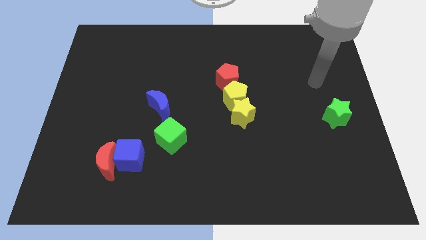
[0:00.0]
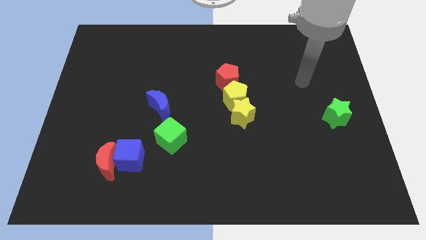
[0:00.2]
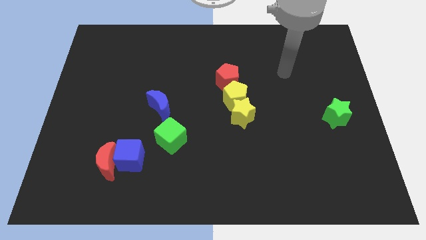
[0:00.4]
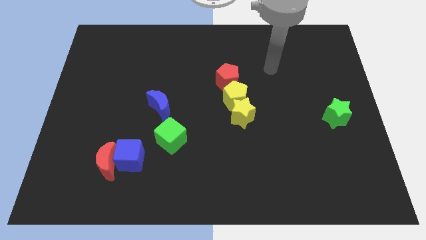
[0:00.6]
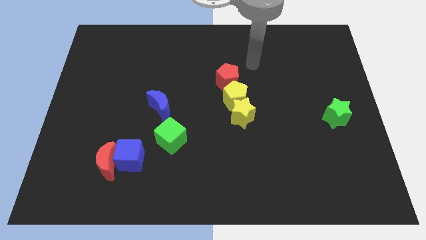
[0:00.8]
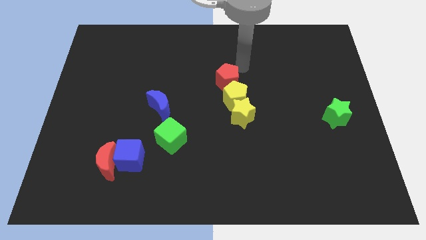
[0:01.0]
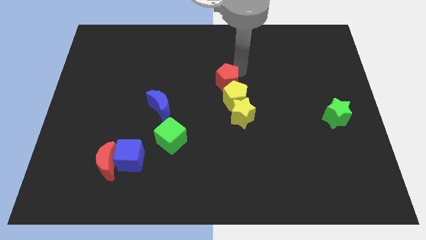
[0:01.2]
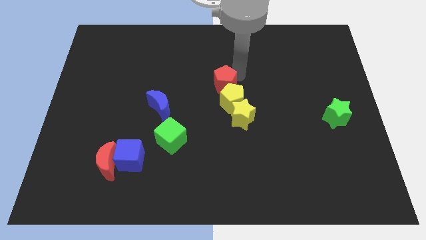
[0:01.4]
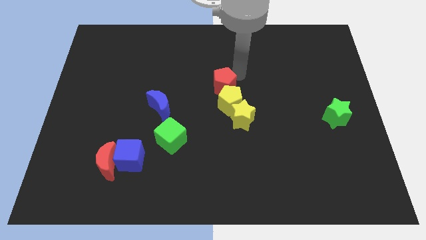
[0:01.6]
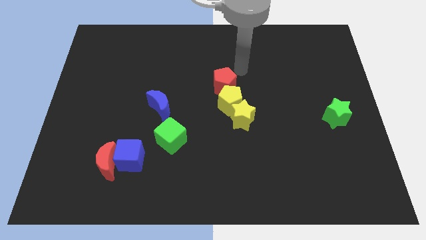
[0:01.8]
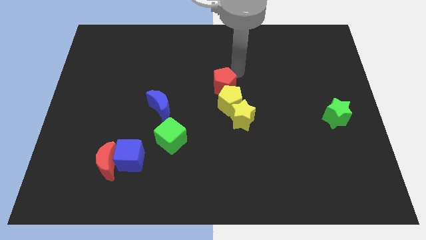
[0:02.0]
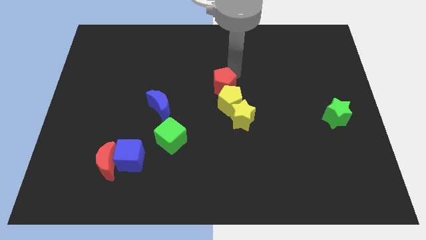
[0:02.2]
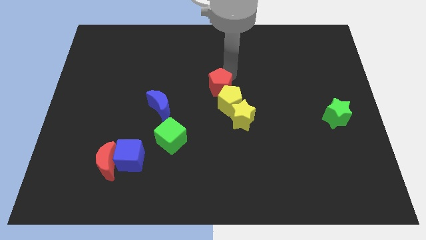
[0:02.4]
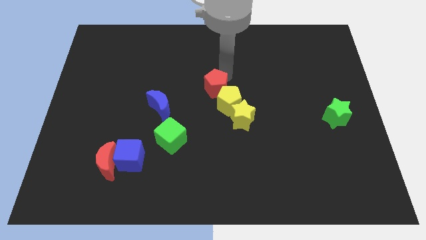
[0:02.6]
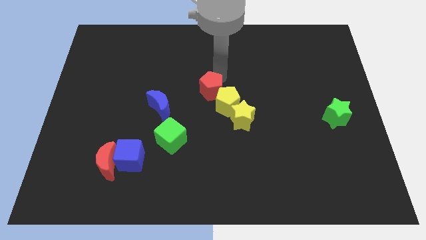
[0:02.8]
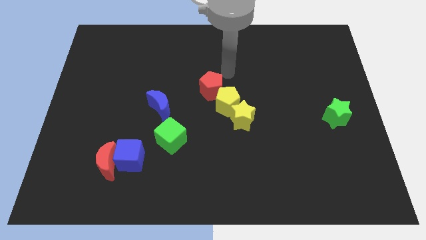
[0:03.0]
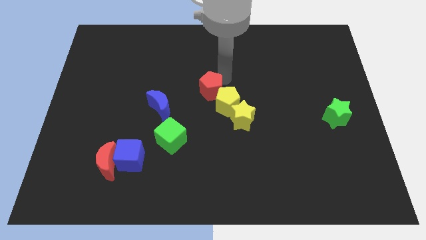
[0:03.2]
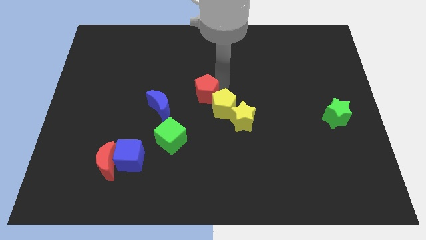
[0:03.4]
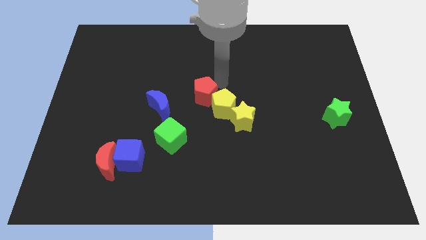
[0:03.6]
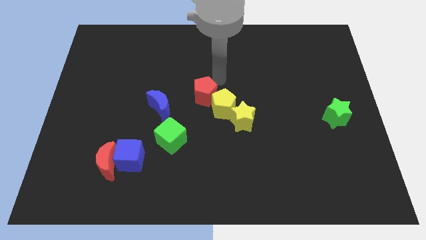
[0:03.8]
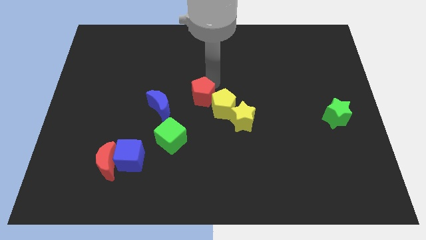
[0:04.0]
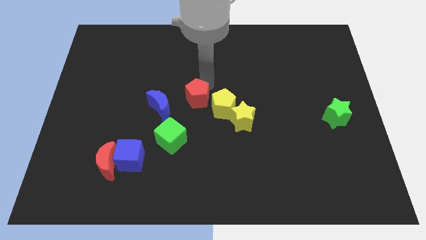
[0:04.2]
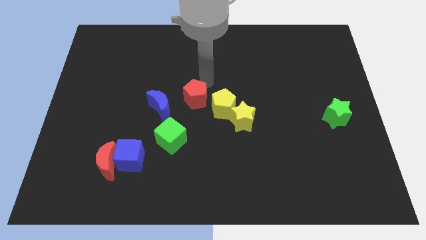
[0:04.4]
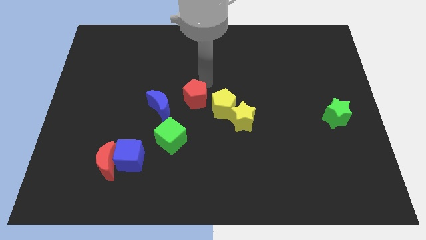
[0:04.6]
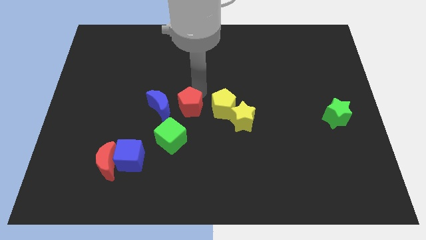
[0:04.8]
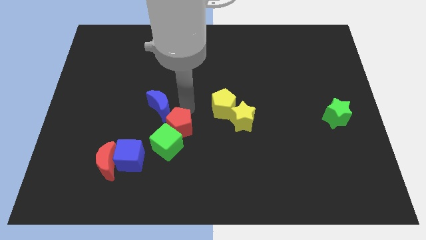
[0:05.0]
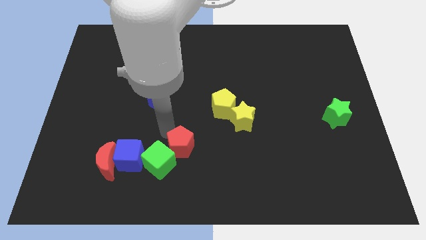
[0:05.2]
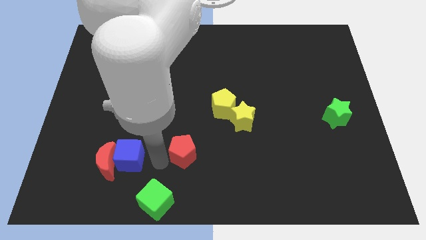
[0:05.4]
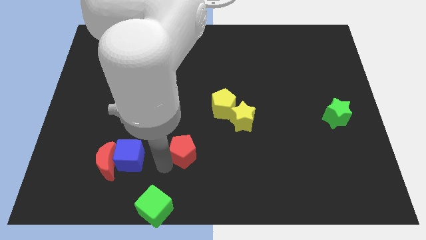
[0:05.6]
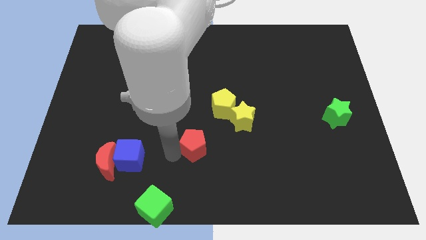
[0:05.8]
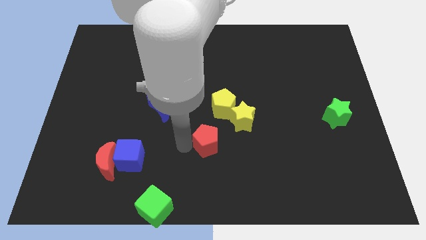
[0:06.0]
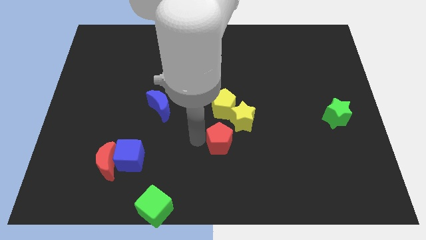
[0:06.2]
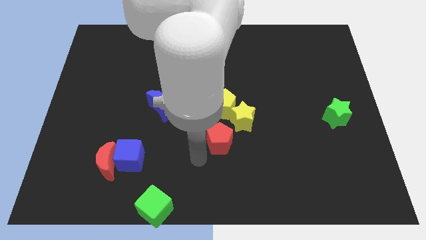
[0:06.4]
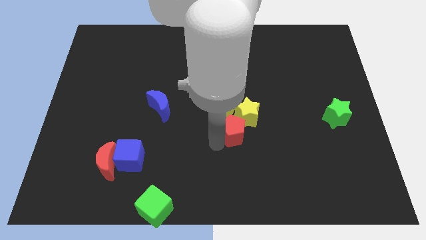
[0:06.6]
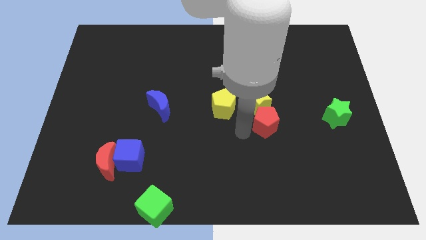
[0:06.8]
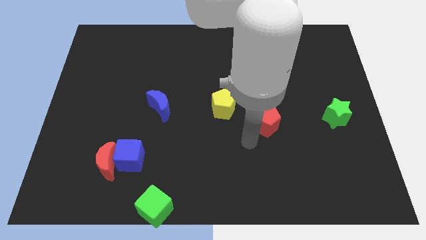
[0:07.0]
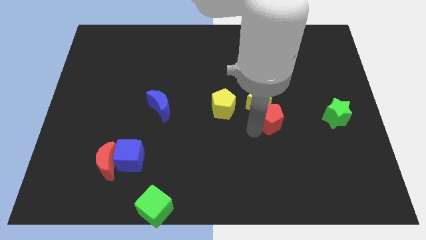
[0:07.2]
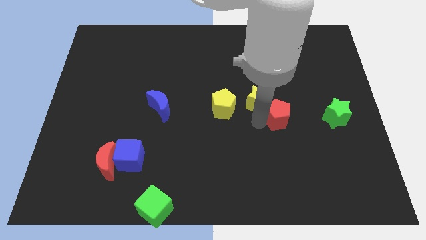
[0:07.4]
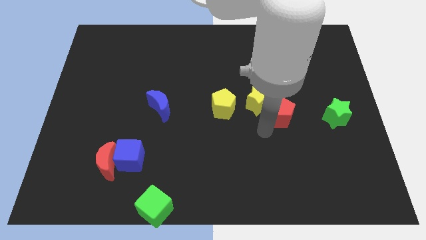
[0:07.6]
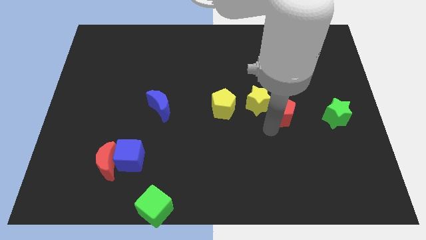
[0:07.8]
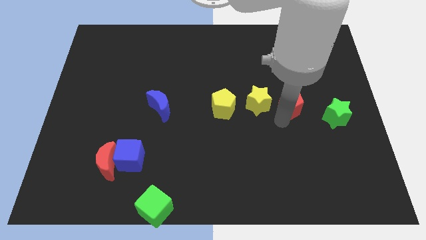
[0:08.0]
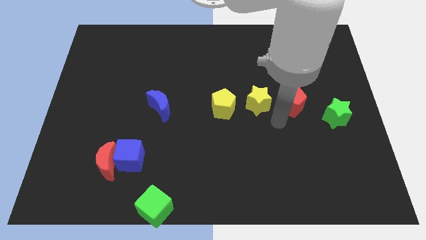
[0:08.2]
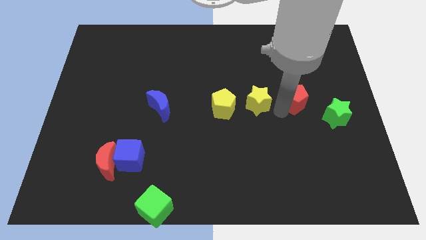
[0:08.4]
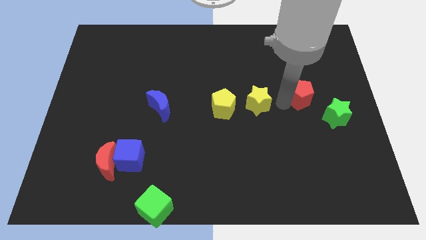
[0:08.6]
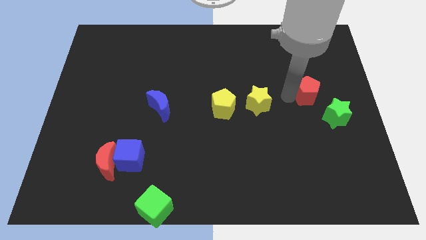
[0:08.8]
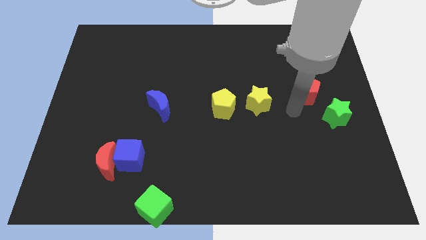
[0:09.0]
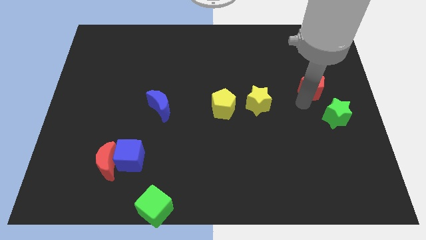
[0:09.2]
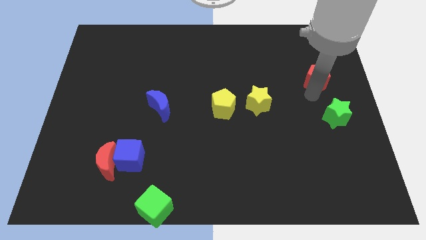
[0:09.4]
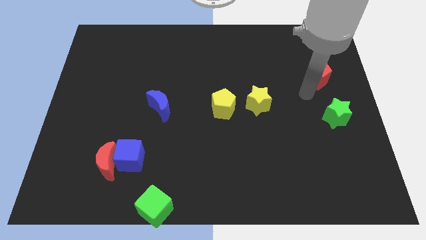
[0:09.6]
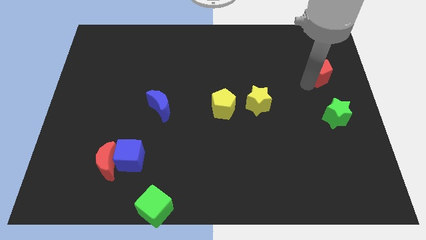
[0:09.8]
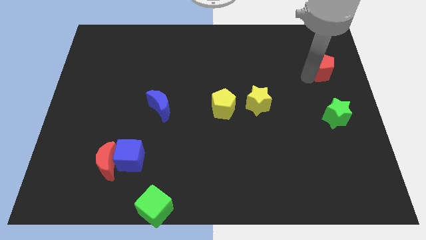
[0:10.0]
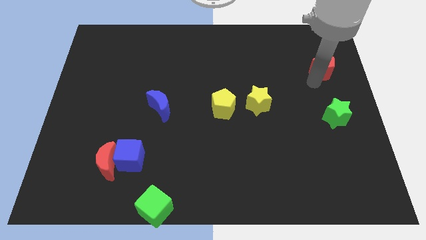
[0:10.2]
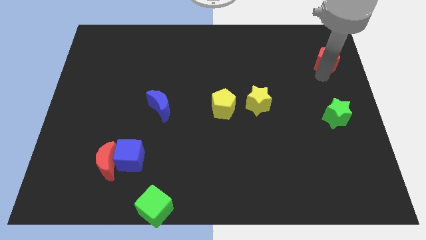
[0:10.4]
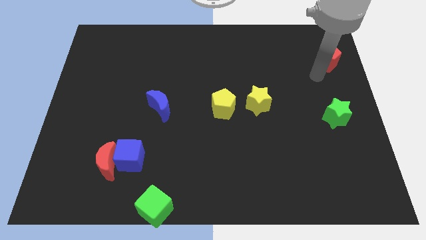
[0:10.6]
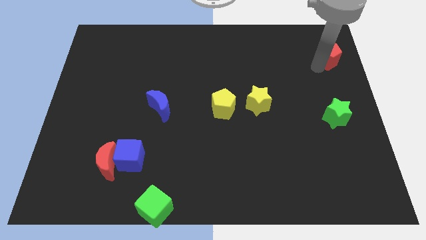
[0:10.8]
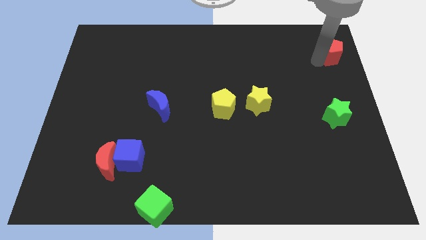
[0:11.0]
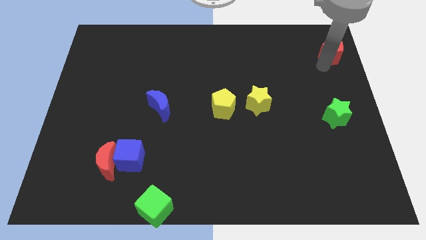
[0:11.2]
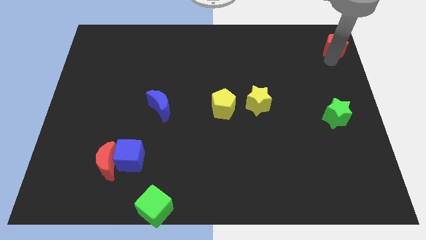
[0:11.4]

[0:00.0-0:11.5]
slide the red pentagon to the top right corner
